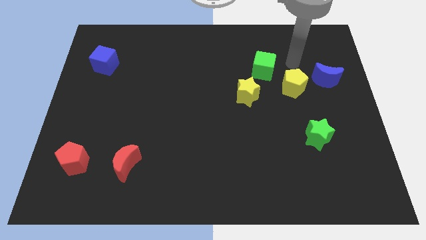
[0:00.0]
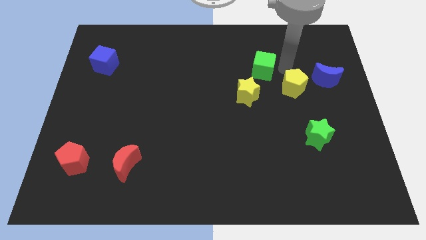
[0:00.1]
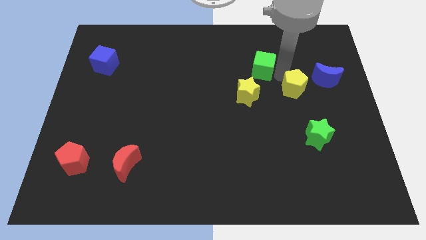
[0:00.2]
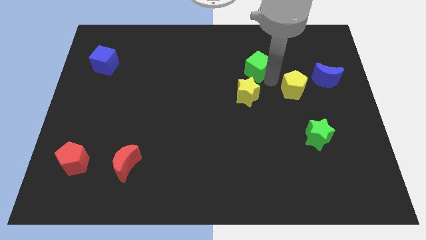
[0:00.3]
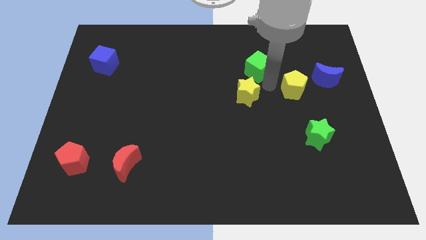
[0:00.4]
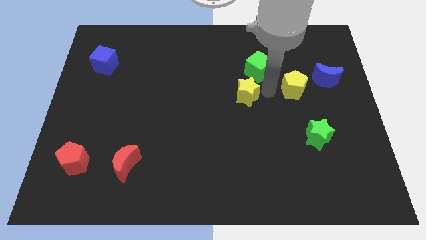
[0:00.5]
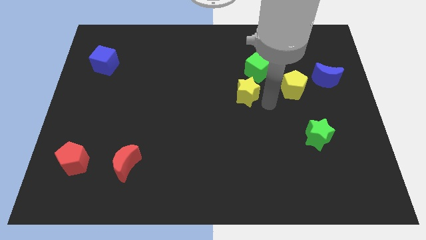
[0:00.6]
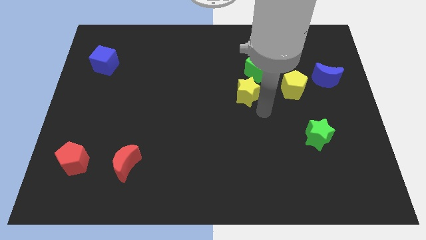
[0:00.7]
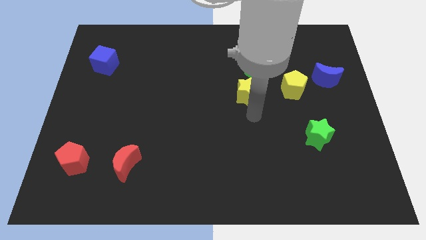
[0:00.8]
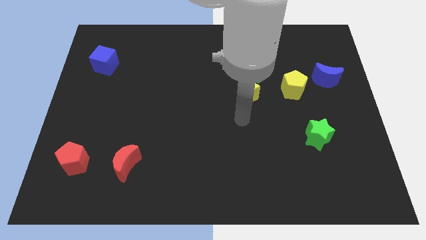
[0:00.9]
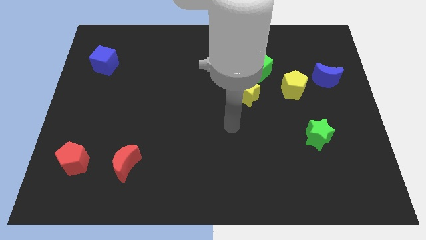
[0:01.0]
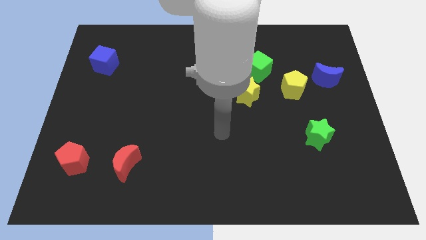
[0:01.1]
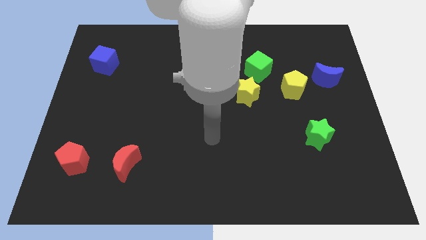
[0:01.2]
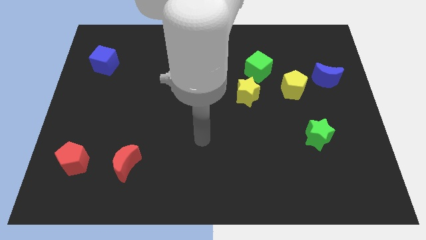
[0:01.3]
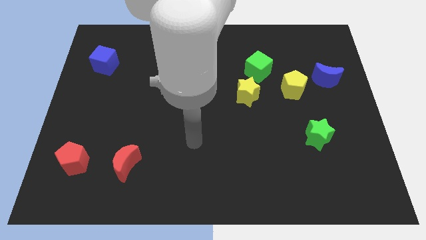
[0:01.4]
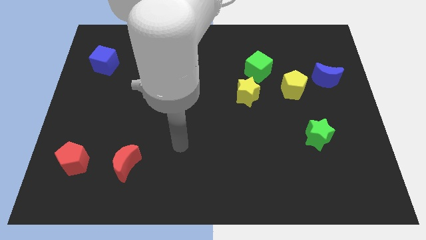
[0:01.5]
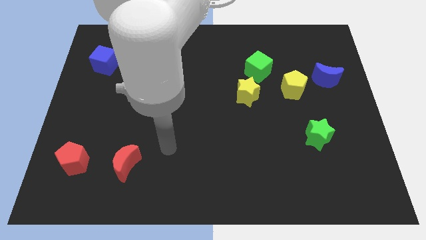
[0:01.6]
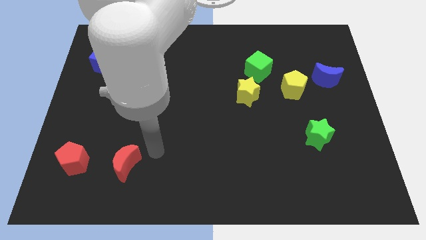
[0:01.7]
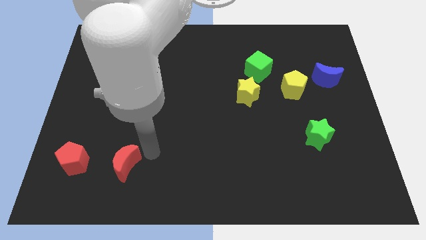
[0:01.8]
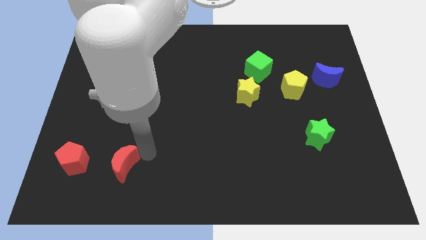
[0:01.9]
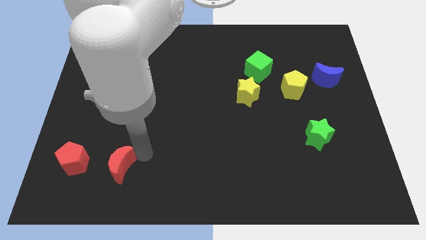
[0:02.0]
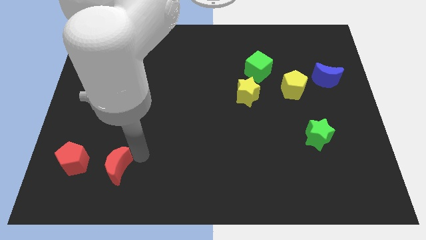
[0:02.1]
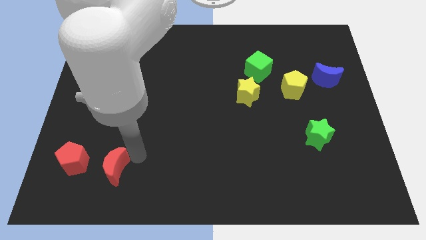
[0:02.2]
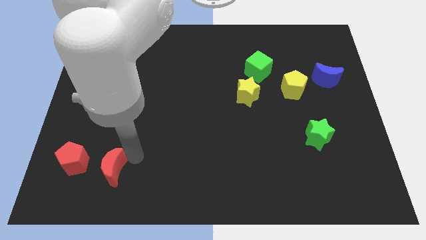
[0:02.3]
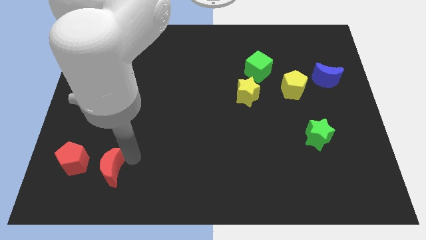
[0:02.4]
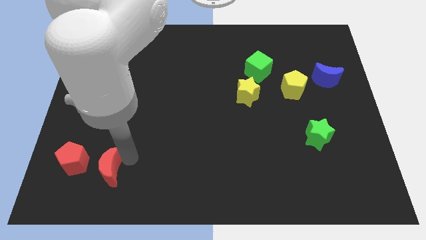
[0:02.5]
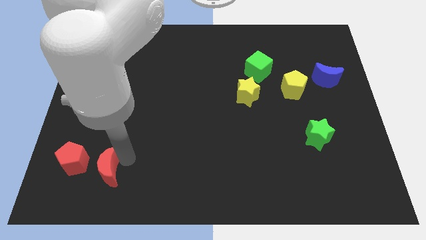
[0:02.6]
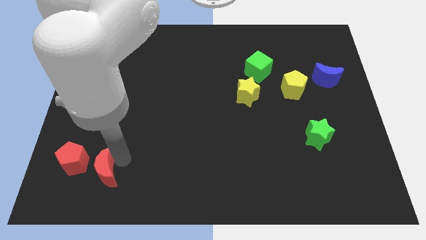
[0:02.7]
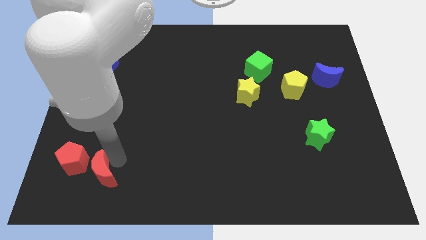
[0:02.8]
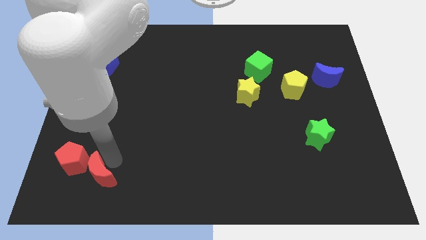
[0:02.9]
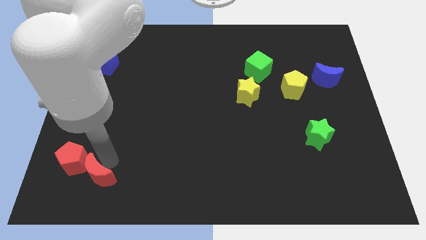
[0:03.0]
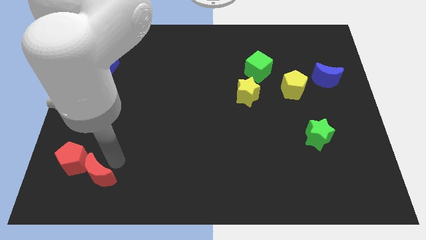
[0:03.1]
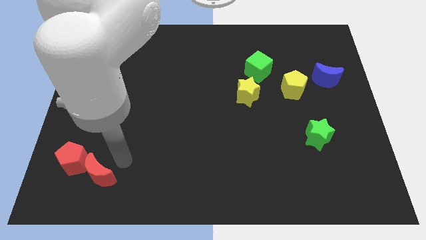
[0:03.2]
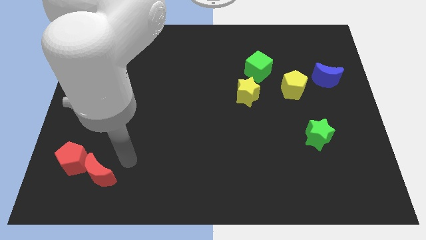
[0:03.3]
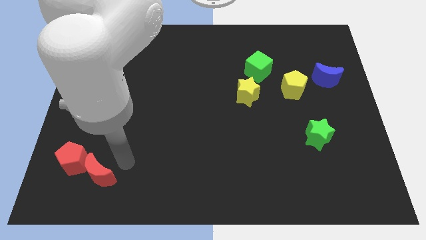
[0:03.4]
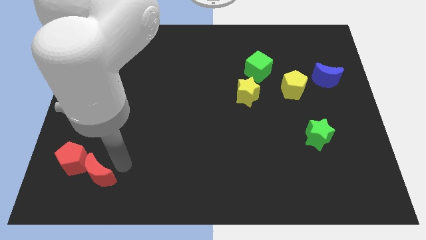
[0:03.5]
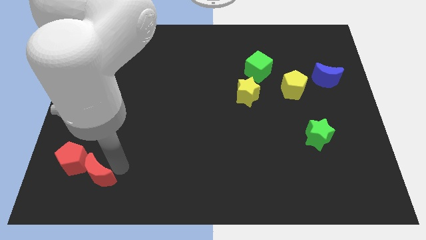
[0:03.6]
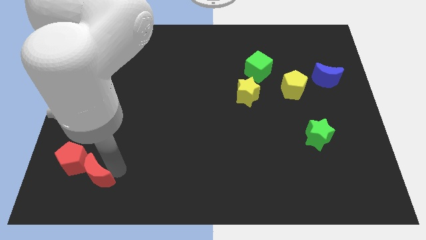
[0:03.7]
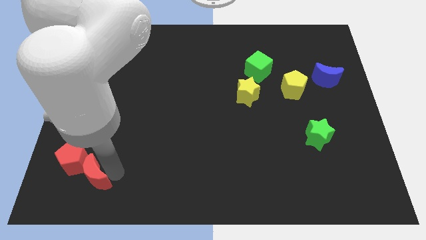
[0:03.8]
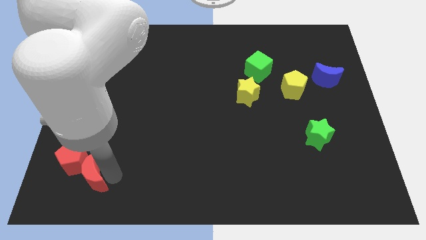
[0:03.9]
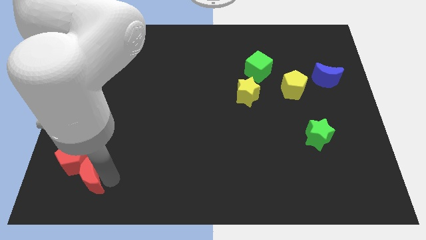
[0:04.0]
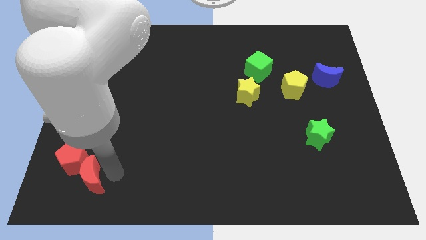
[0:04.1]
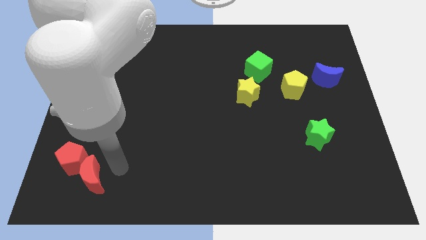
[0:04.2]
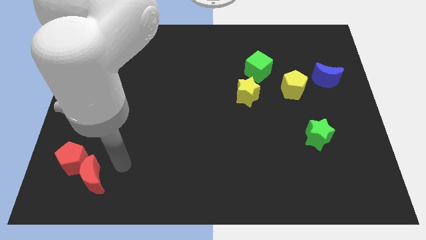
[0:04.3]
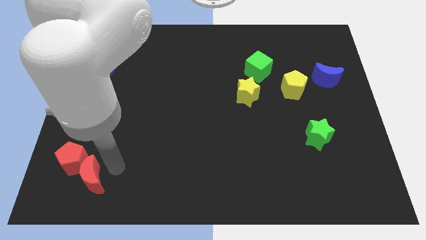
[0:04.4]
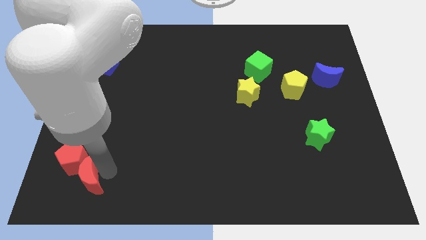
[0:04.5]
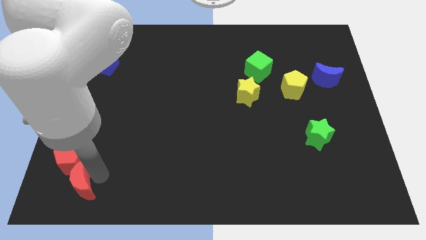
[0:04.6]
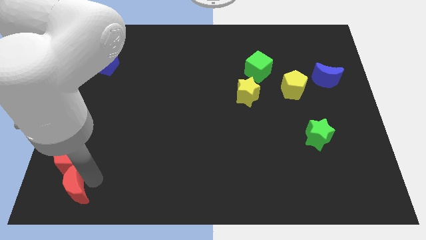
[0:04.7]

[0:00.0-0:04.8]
put the red moon to the lower left corner

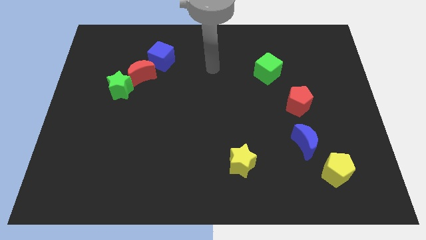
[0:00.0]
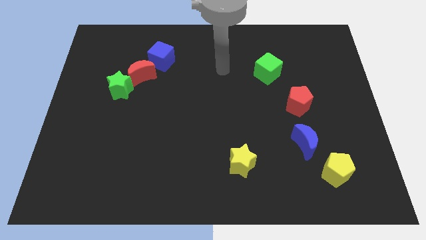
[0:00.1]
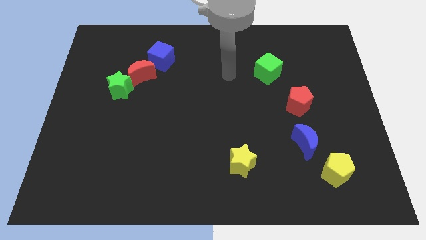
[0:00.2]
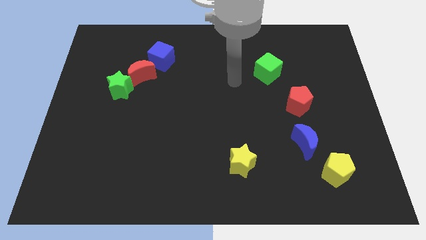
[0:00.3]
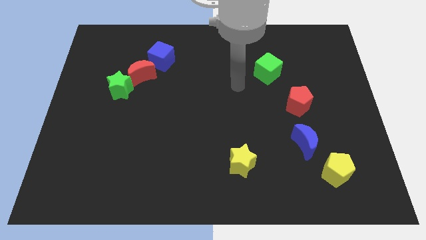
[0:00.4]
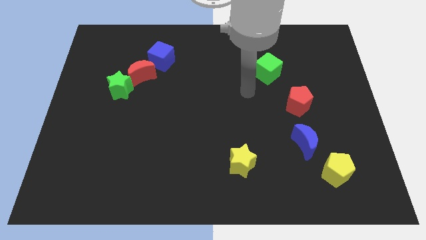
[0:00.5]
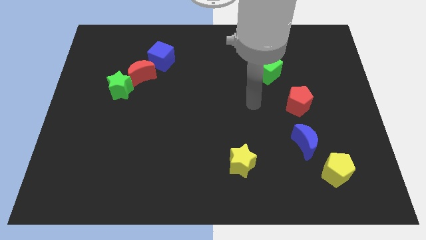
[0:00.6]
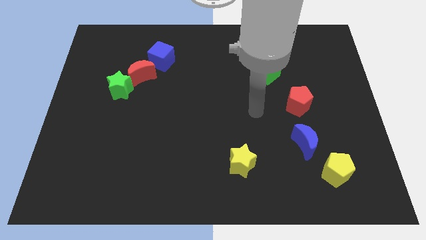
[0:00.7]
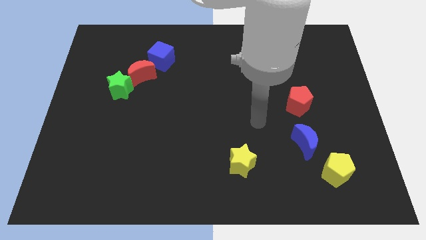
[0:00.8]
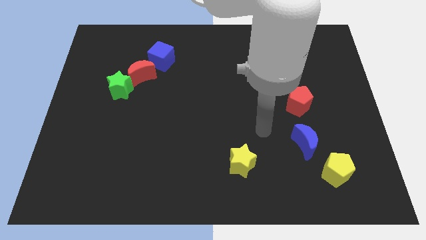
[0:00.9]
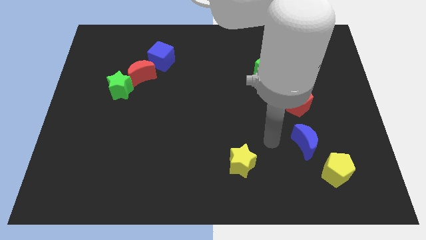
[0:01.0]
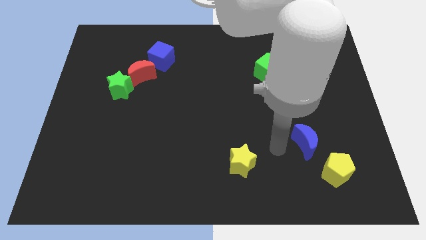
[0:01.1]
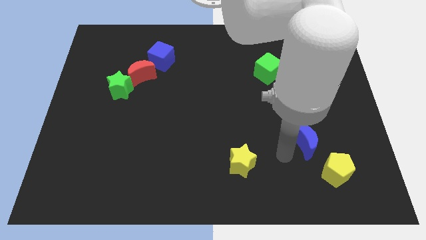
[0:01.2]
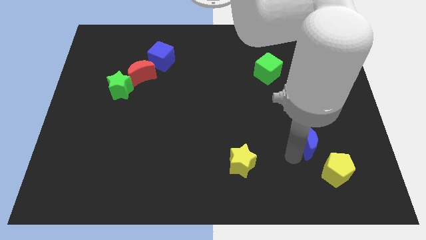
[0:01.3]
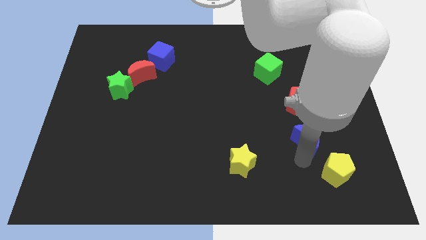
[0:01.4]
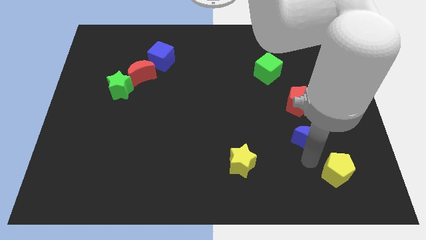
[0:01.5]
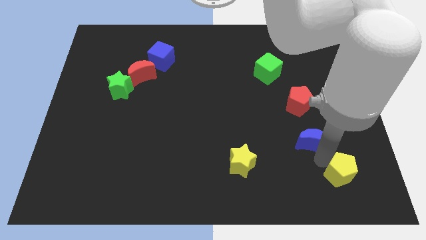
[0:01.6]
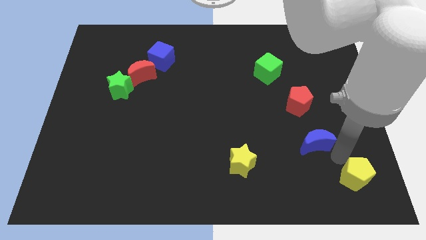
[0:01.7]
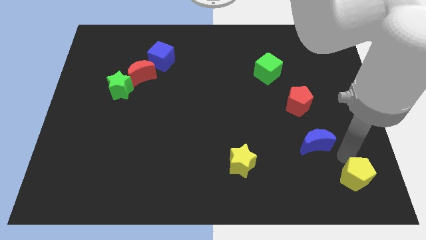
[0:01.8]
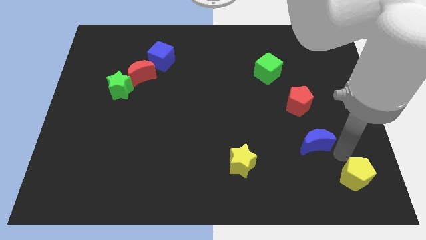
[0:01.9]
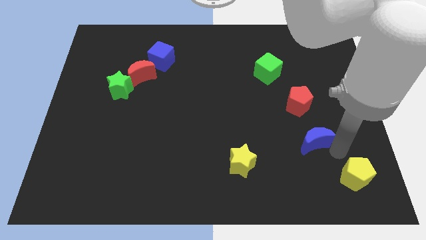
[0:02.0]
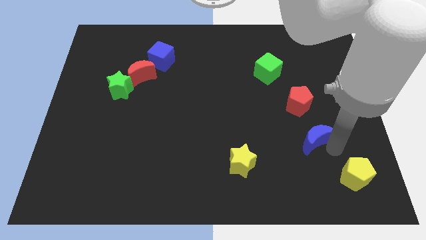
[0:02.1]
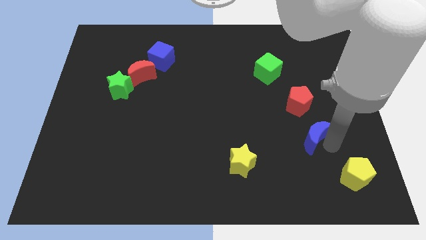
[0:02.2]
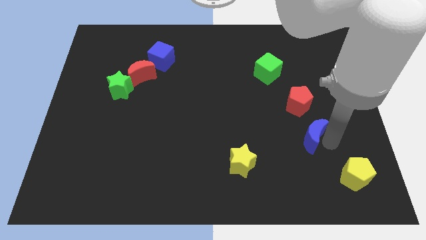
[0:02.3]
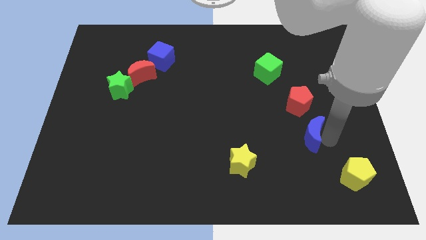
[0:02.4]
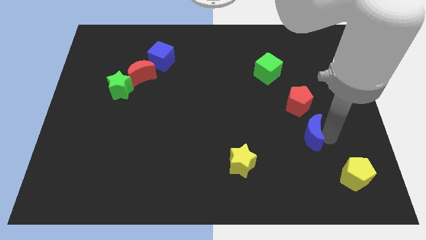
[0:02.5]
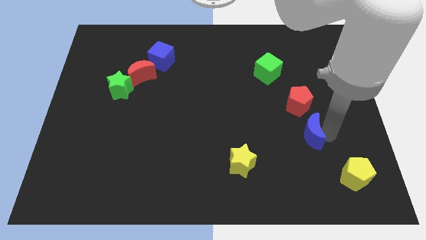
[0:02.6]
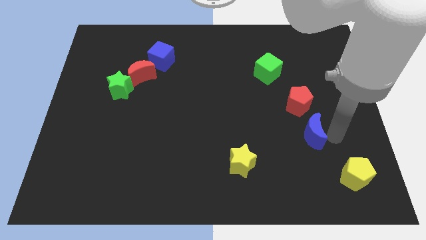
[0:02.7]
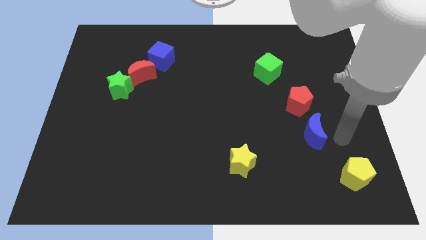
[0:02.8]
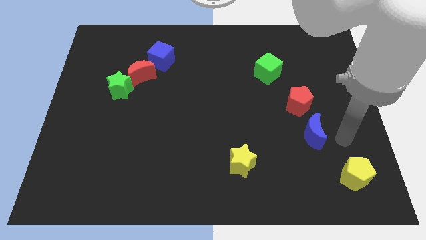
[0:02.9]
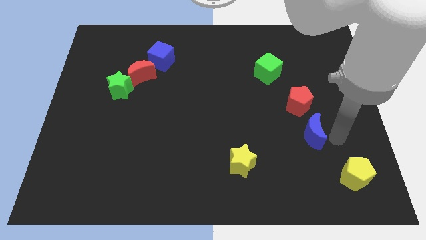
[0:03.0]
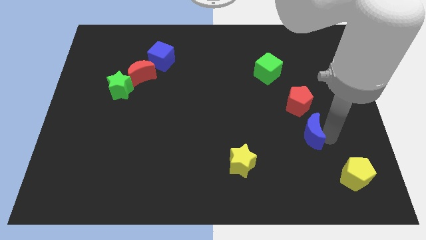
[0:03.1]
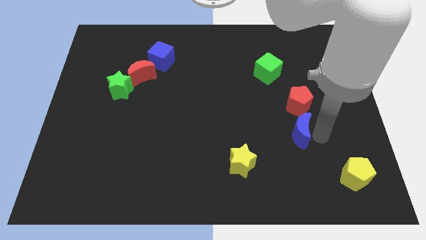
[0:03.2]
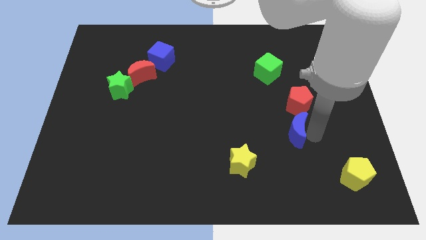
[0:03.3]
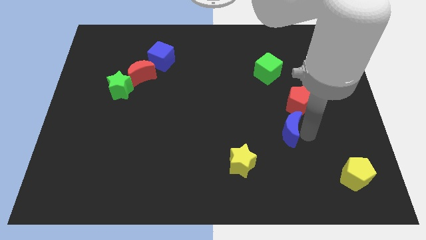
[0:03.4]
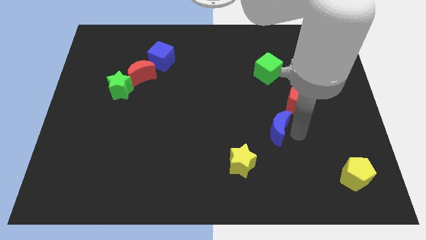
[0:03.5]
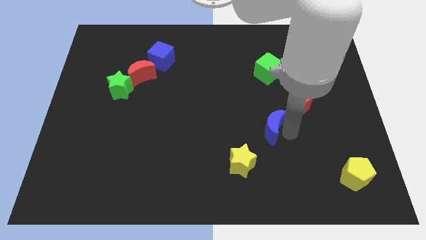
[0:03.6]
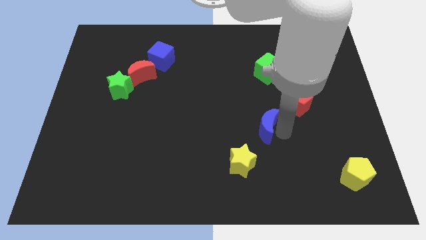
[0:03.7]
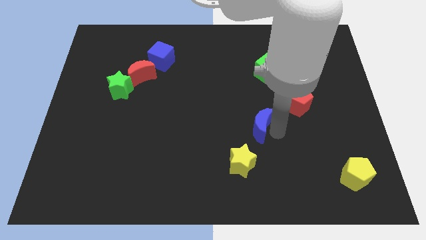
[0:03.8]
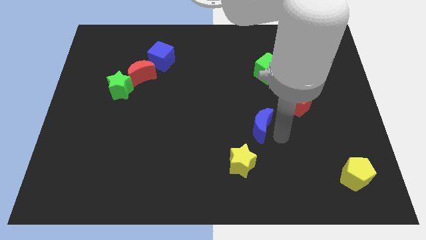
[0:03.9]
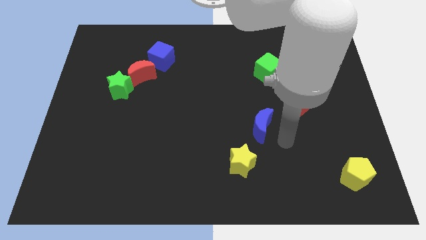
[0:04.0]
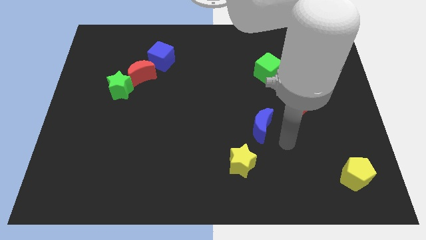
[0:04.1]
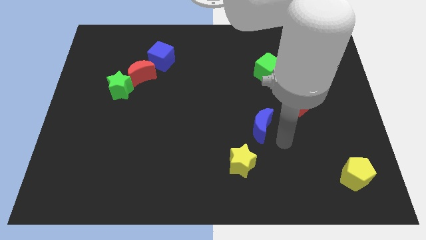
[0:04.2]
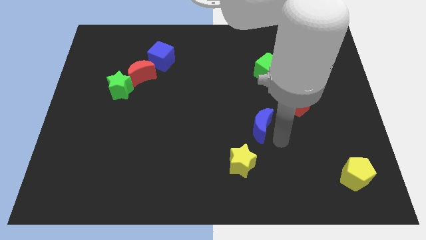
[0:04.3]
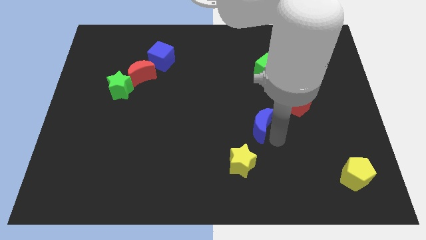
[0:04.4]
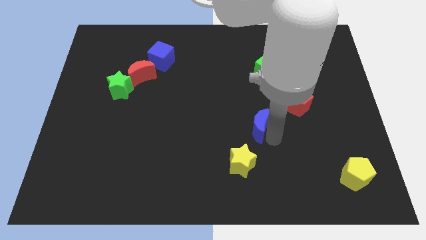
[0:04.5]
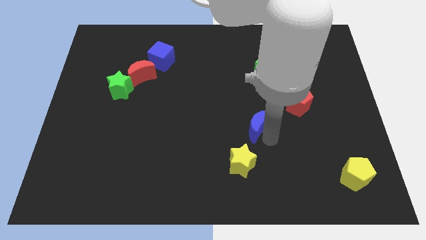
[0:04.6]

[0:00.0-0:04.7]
slide the blue moon to the center
